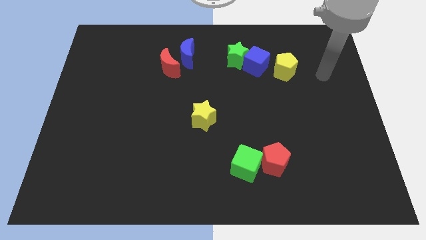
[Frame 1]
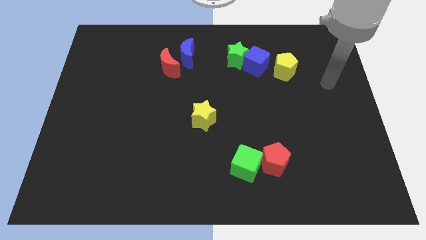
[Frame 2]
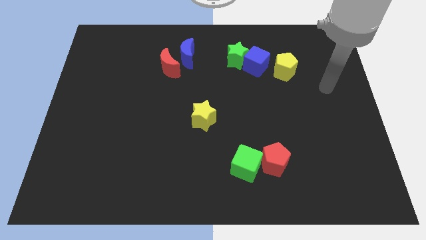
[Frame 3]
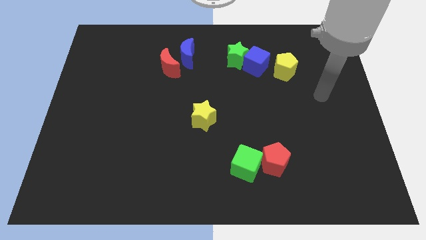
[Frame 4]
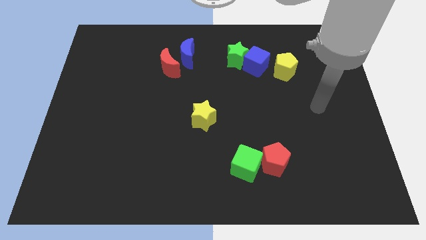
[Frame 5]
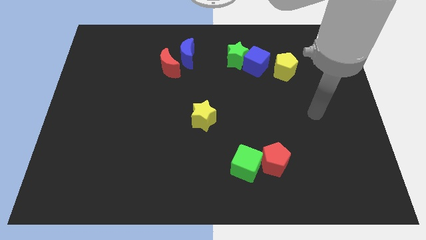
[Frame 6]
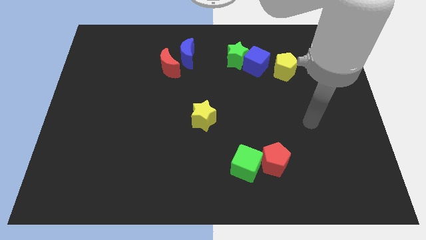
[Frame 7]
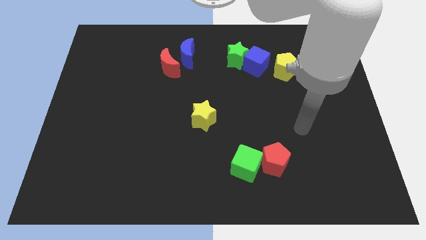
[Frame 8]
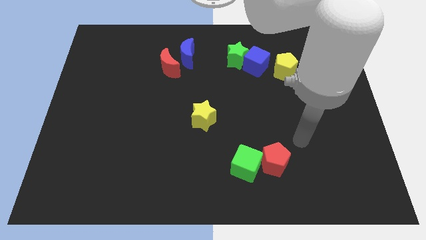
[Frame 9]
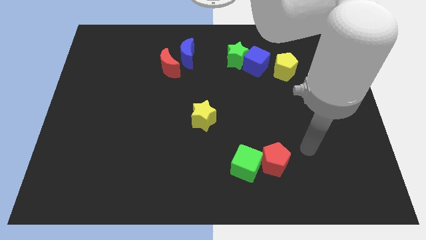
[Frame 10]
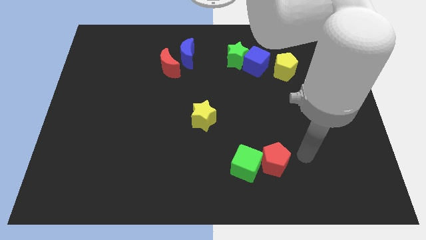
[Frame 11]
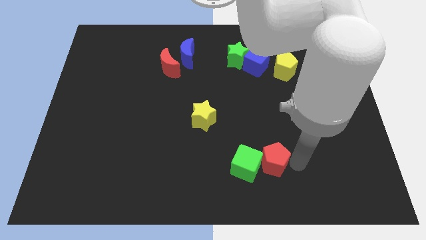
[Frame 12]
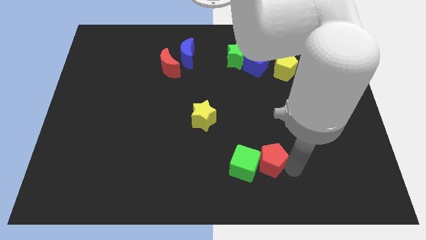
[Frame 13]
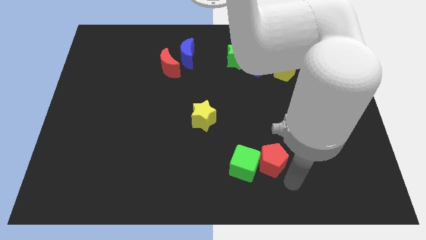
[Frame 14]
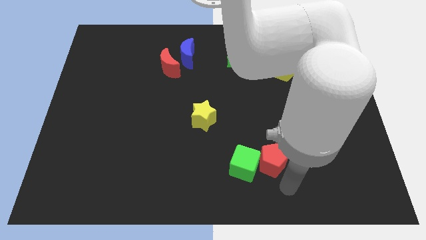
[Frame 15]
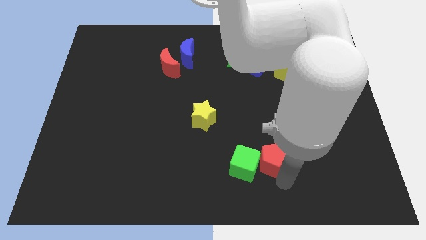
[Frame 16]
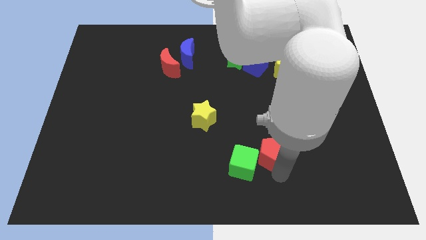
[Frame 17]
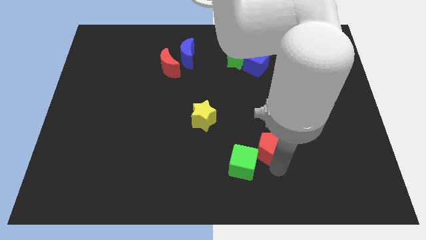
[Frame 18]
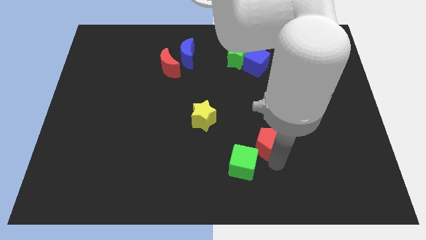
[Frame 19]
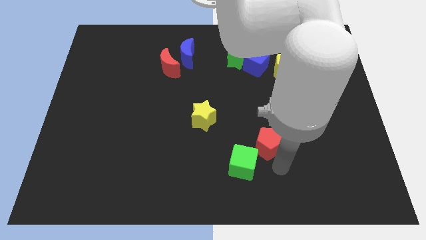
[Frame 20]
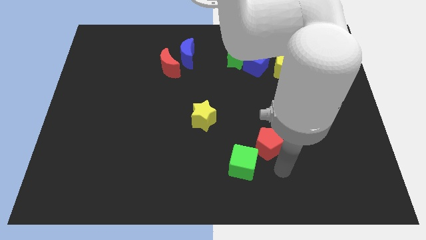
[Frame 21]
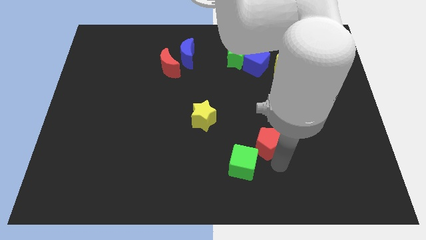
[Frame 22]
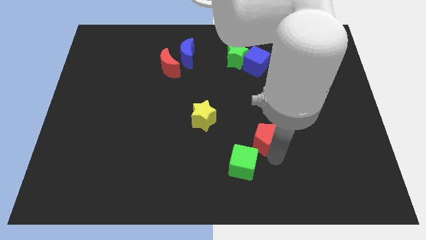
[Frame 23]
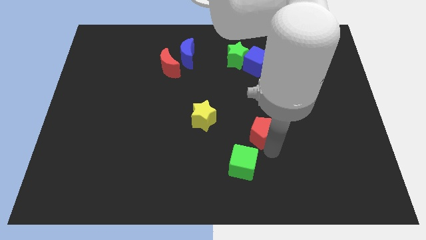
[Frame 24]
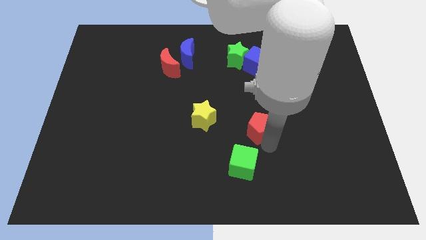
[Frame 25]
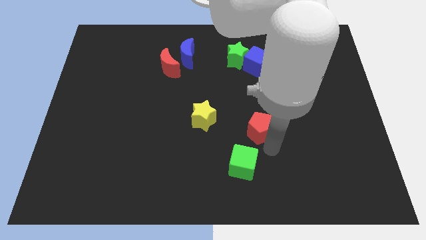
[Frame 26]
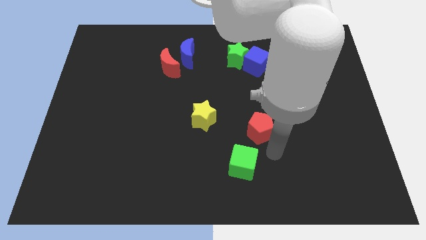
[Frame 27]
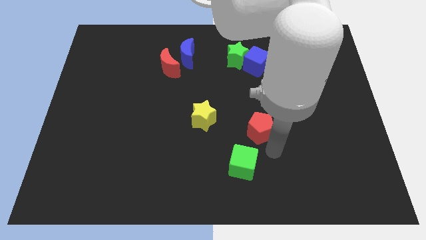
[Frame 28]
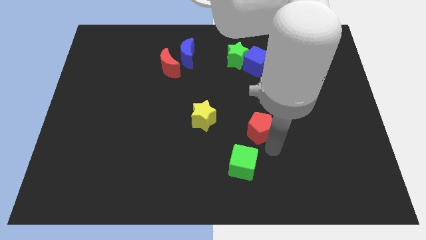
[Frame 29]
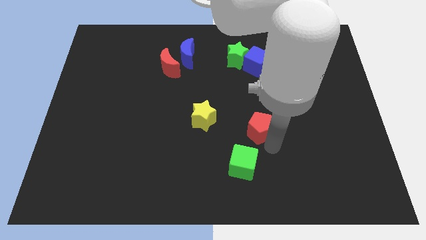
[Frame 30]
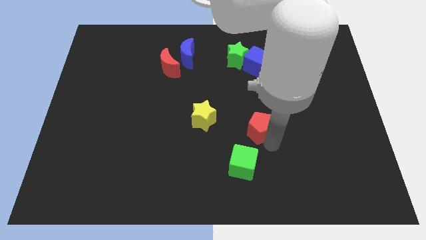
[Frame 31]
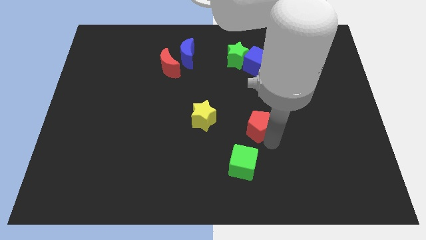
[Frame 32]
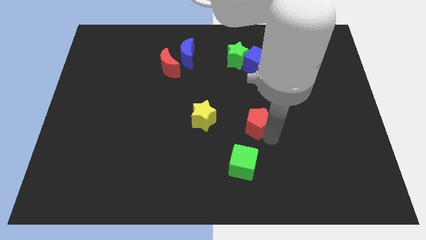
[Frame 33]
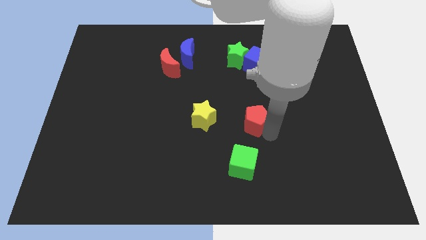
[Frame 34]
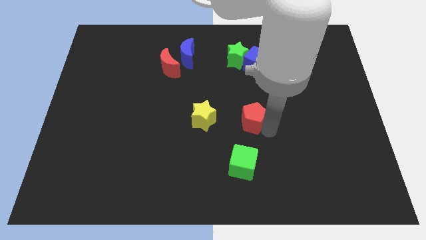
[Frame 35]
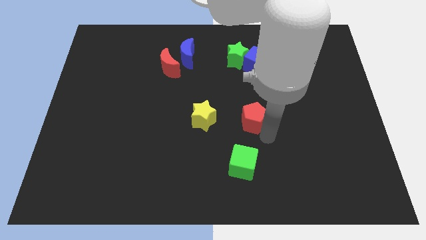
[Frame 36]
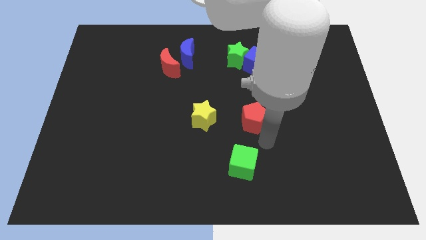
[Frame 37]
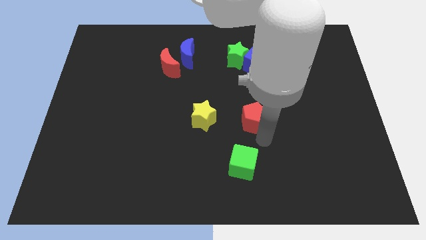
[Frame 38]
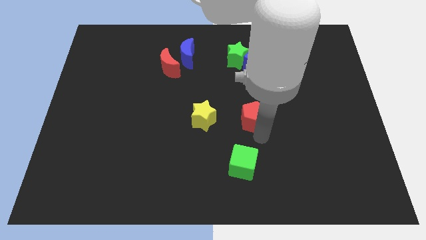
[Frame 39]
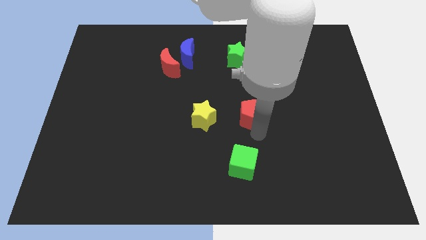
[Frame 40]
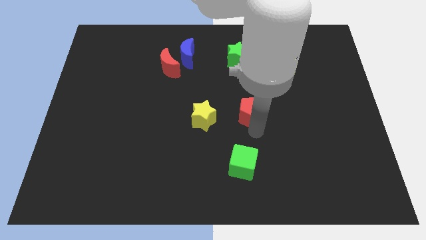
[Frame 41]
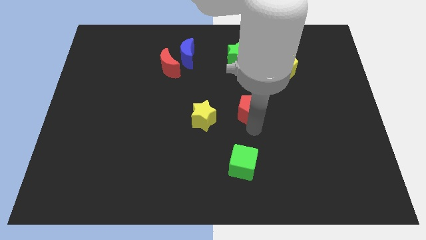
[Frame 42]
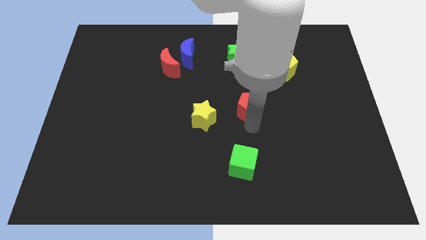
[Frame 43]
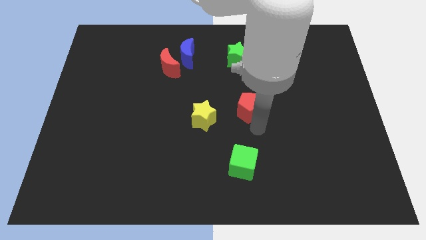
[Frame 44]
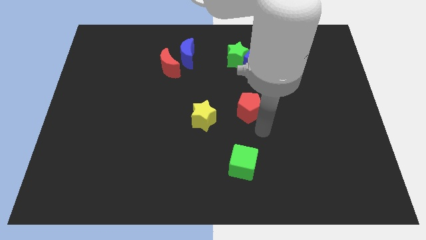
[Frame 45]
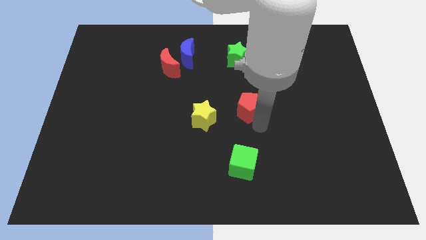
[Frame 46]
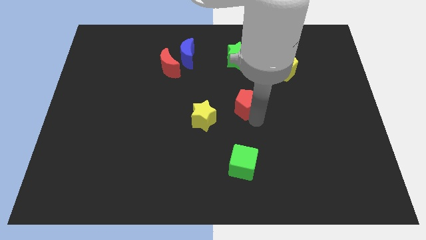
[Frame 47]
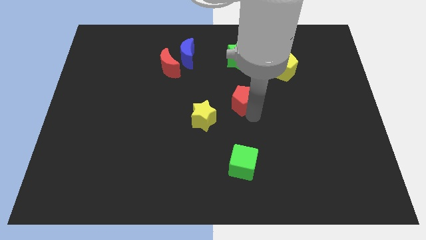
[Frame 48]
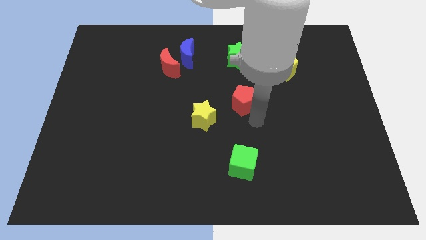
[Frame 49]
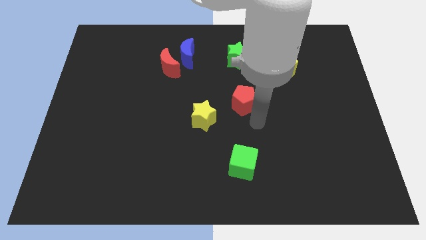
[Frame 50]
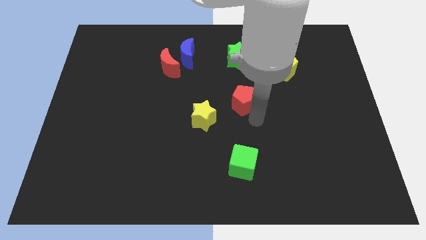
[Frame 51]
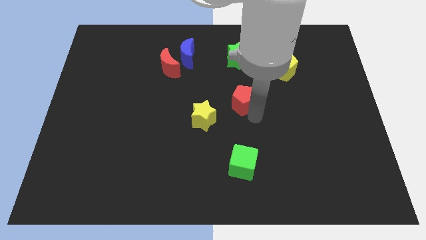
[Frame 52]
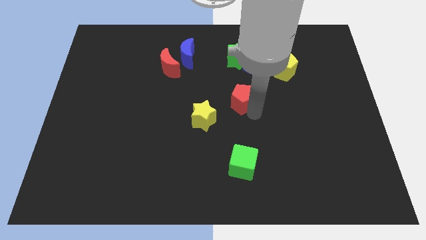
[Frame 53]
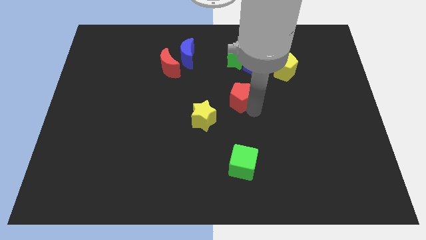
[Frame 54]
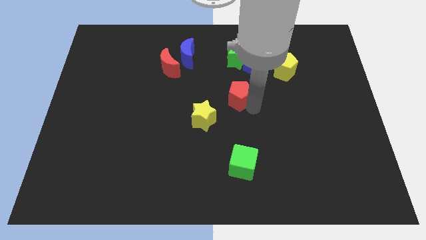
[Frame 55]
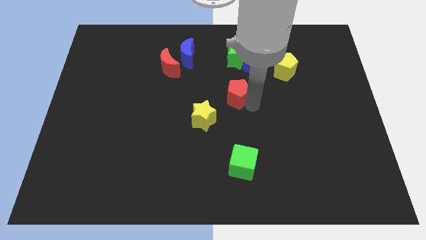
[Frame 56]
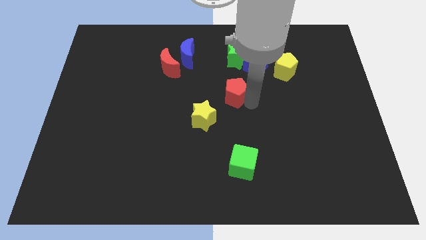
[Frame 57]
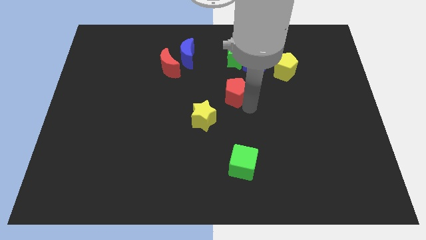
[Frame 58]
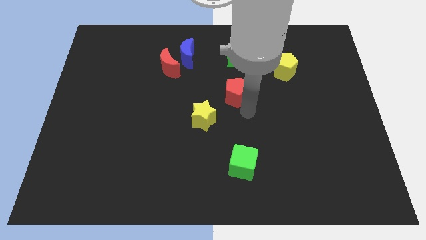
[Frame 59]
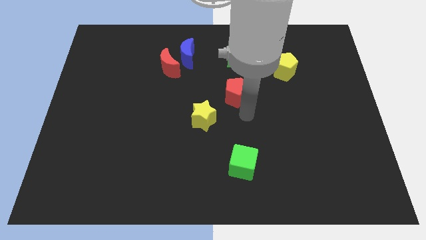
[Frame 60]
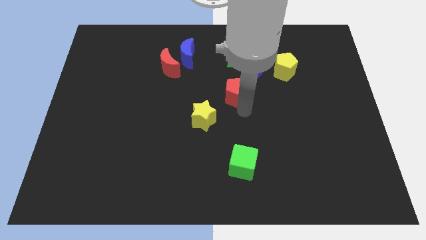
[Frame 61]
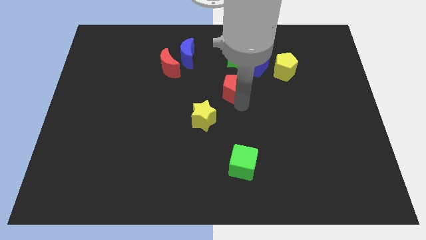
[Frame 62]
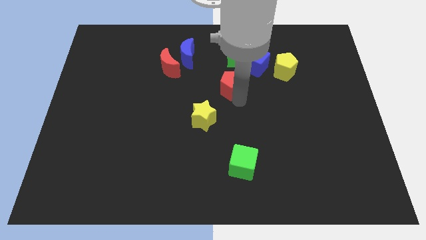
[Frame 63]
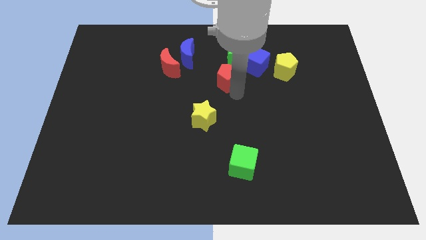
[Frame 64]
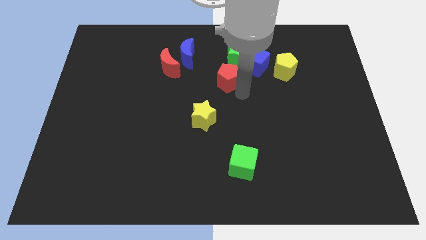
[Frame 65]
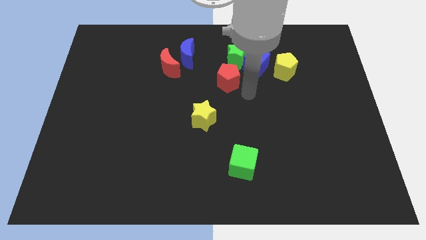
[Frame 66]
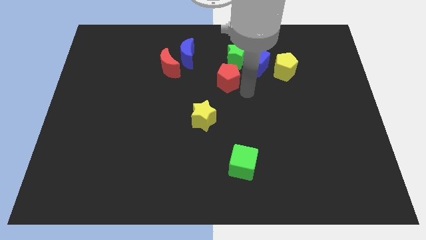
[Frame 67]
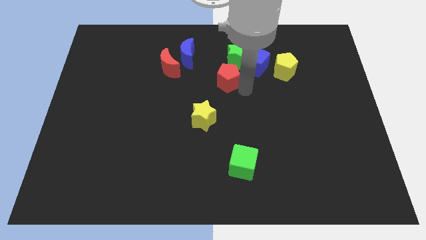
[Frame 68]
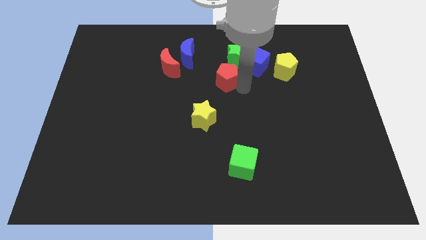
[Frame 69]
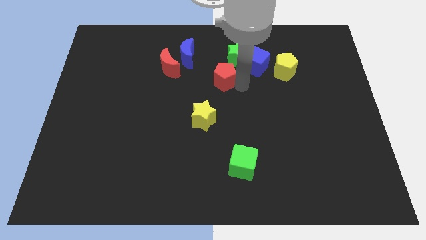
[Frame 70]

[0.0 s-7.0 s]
move the red pentagon just right of the red moon
